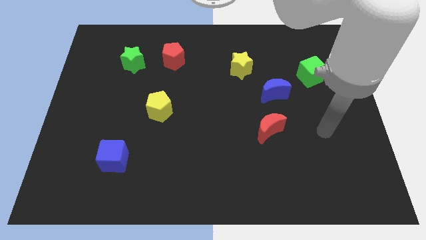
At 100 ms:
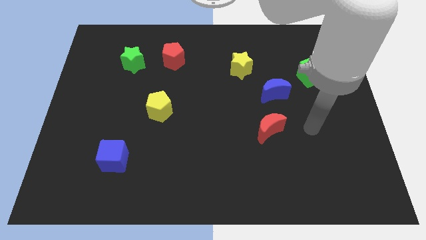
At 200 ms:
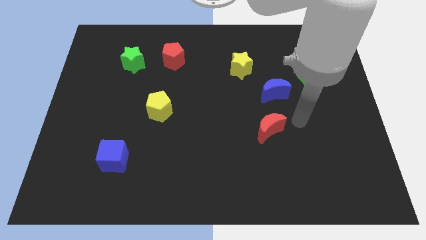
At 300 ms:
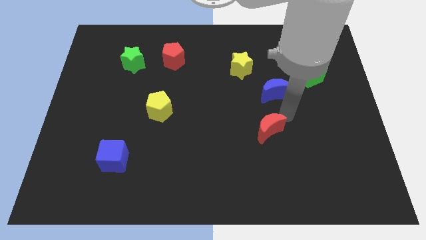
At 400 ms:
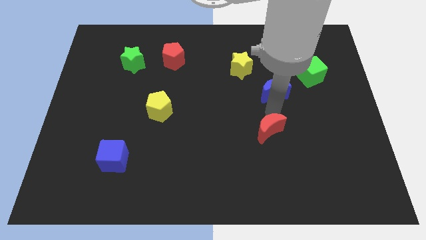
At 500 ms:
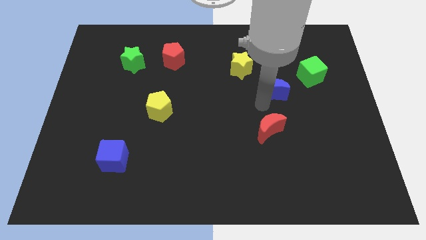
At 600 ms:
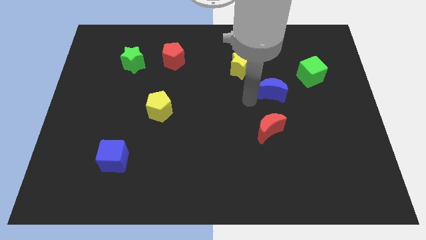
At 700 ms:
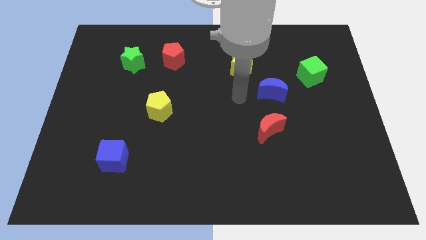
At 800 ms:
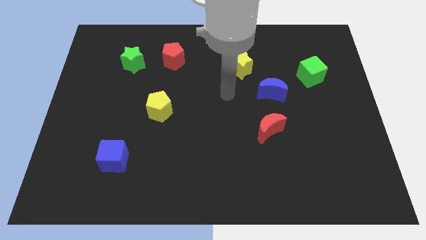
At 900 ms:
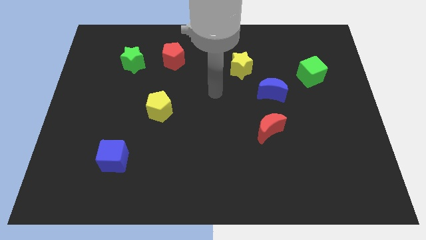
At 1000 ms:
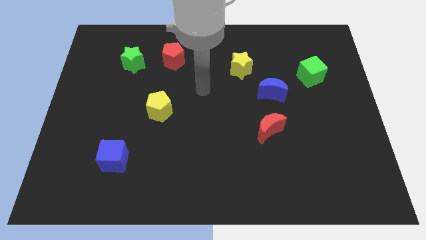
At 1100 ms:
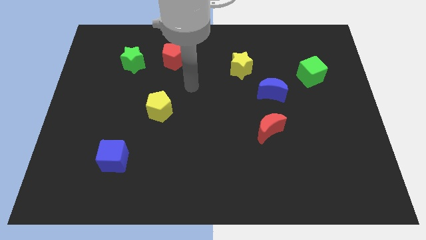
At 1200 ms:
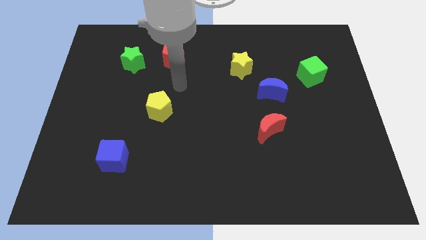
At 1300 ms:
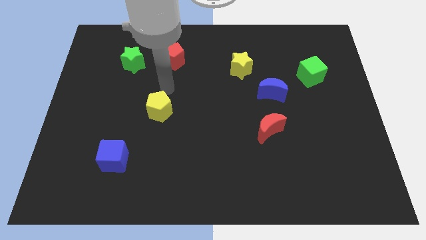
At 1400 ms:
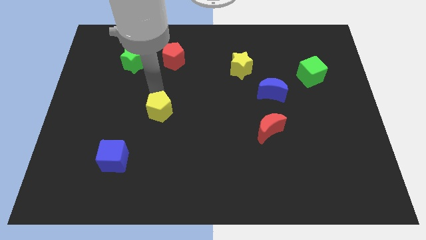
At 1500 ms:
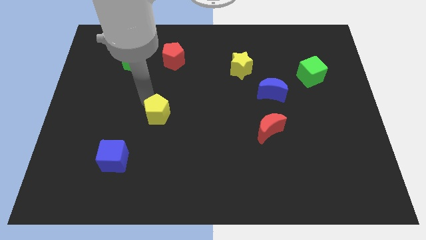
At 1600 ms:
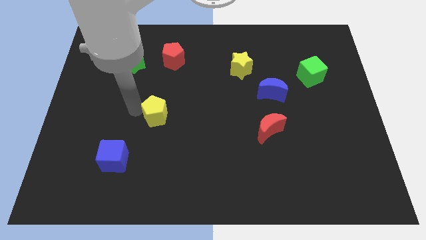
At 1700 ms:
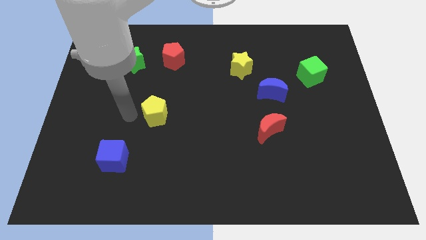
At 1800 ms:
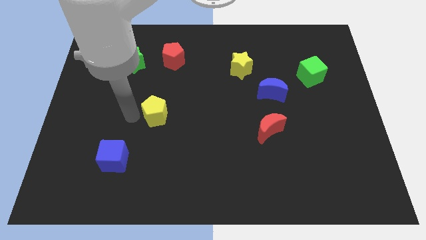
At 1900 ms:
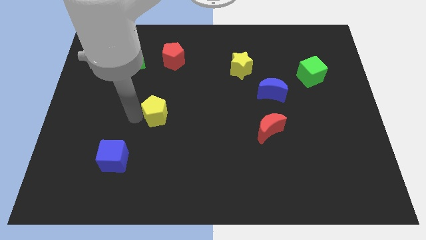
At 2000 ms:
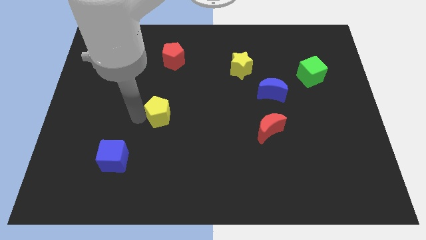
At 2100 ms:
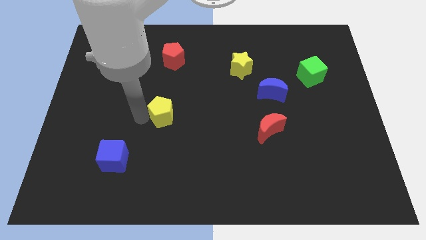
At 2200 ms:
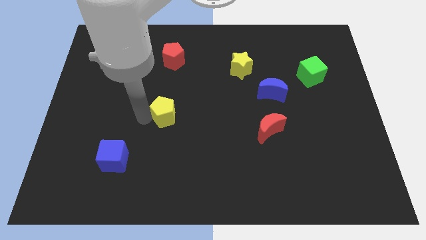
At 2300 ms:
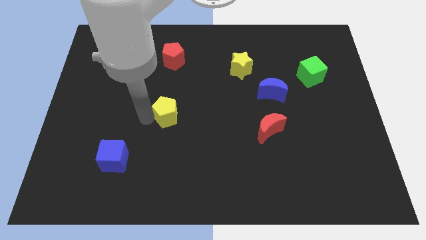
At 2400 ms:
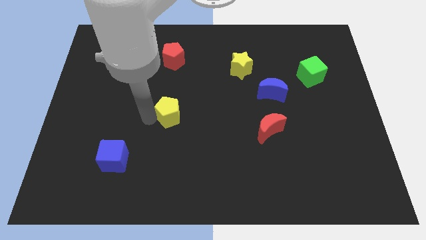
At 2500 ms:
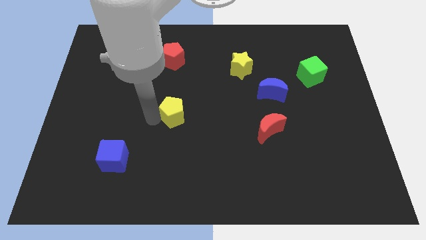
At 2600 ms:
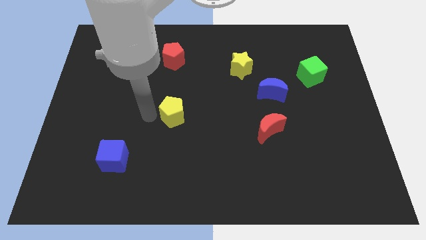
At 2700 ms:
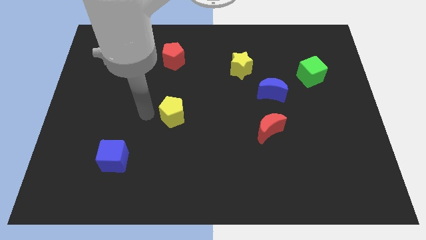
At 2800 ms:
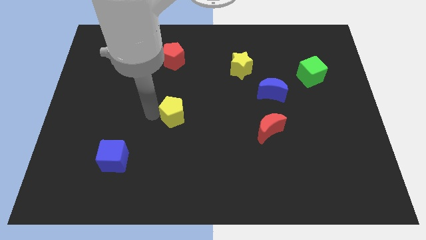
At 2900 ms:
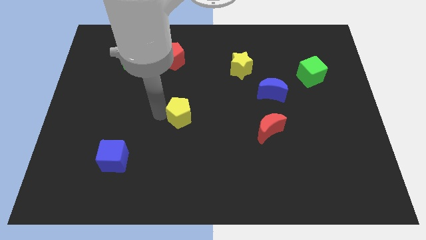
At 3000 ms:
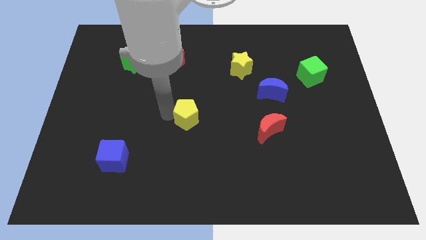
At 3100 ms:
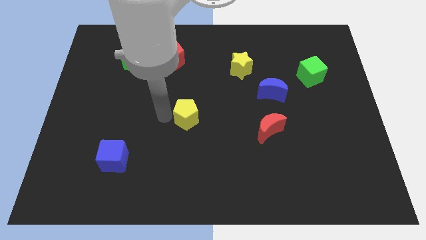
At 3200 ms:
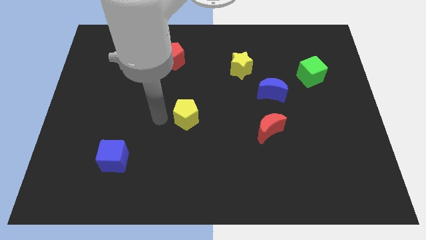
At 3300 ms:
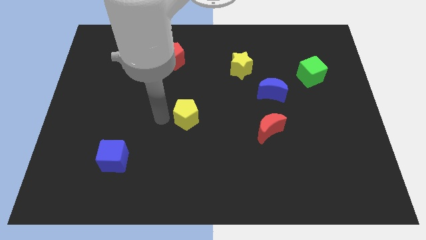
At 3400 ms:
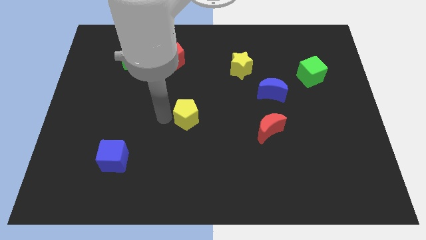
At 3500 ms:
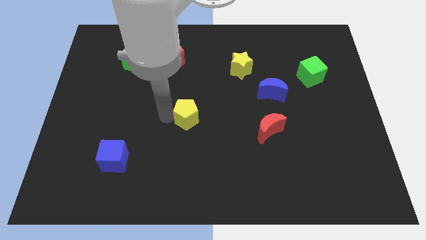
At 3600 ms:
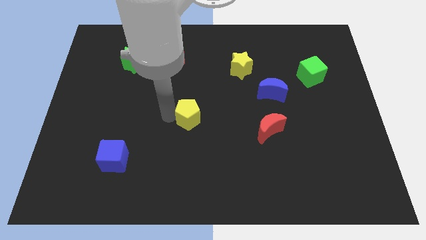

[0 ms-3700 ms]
slide the yellow pentagon to the right a little bit

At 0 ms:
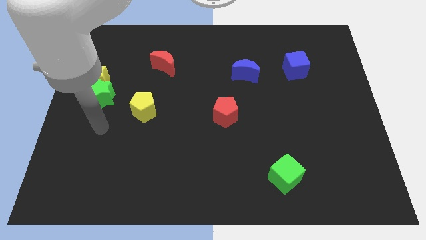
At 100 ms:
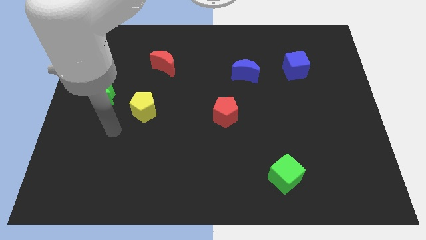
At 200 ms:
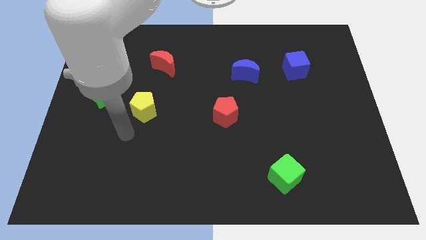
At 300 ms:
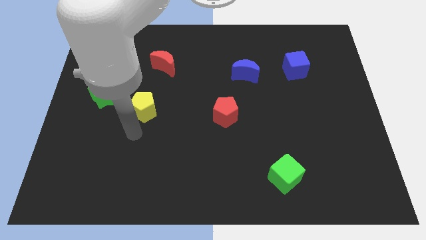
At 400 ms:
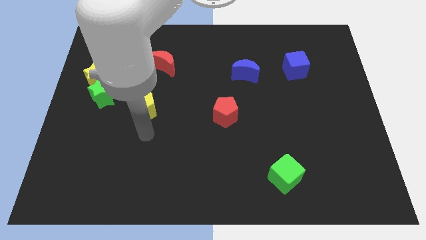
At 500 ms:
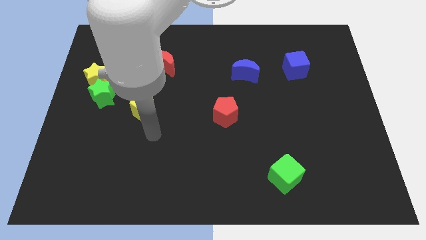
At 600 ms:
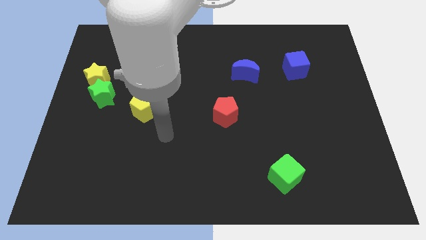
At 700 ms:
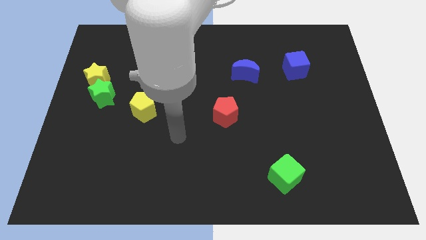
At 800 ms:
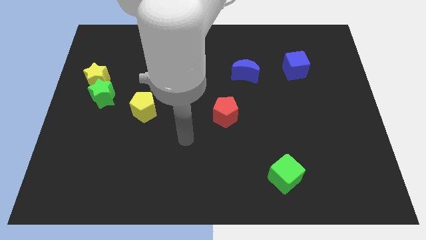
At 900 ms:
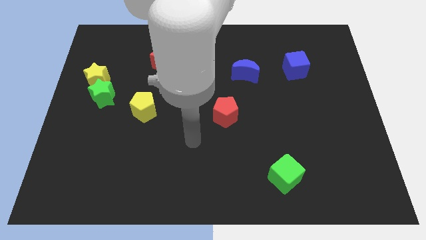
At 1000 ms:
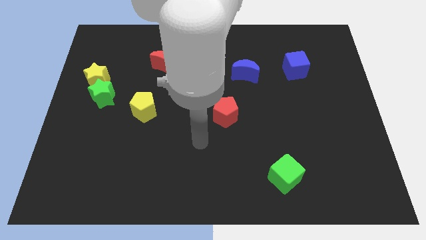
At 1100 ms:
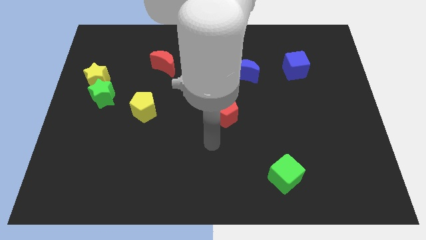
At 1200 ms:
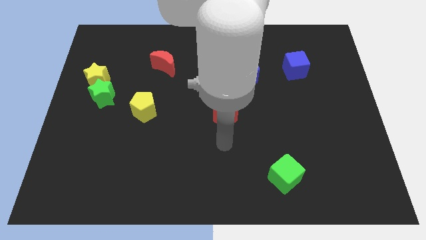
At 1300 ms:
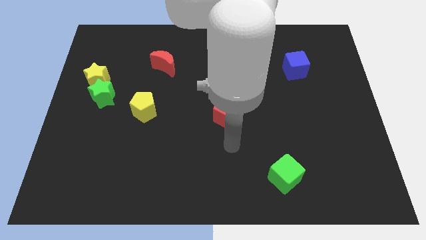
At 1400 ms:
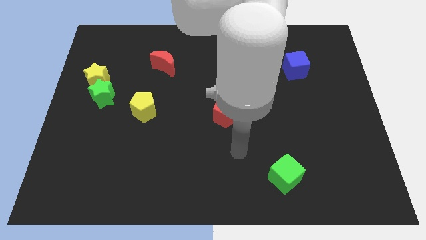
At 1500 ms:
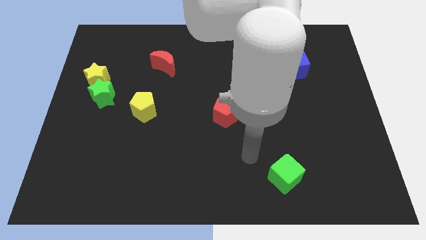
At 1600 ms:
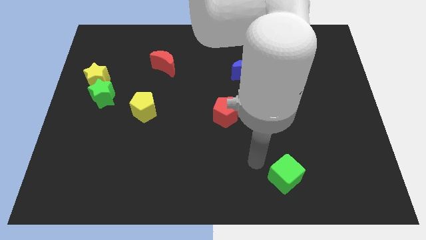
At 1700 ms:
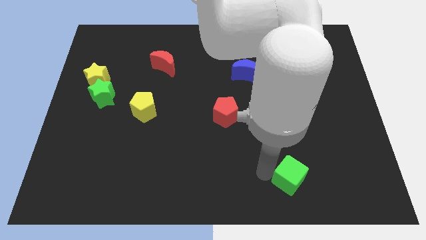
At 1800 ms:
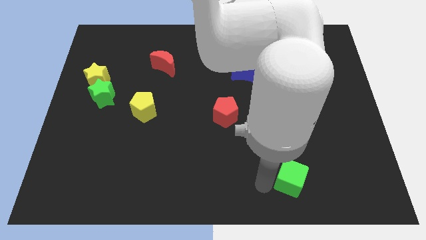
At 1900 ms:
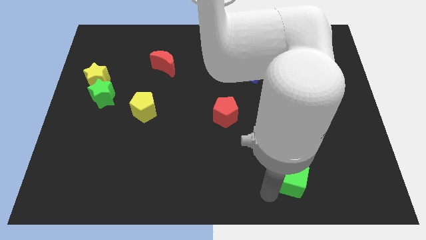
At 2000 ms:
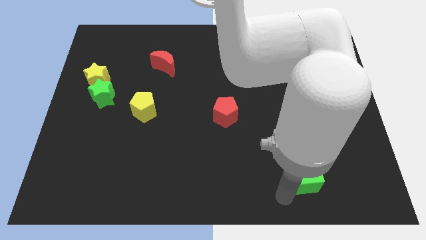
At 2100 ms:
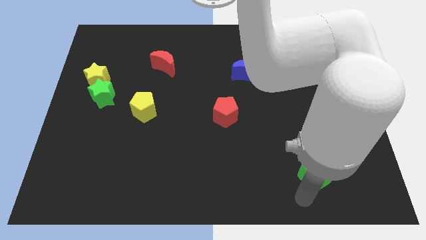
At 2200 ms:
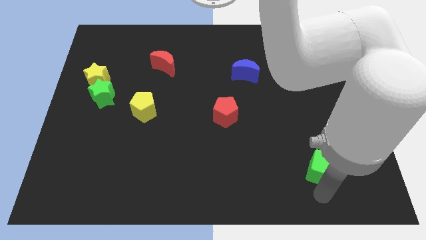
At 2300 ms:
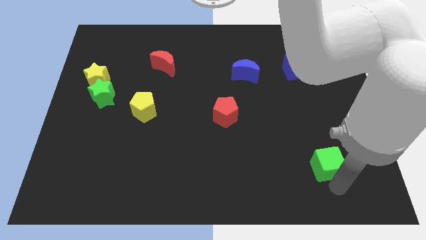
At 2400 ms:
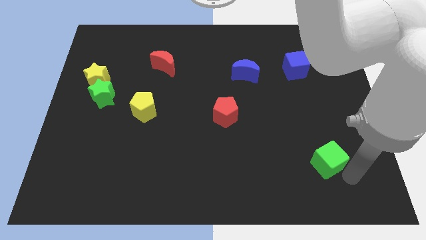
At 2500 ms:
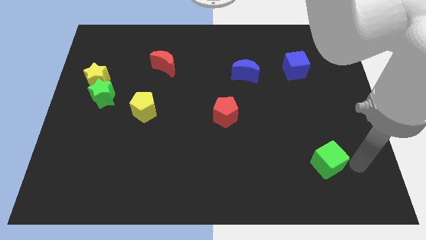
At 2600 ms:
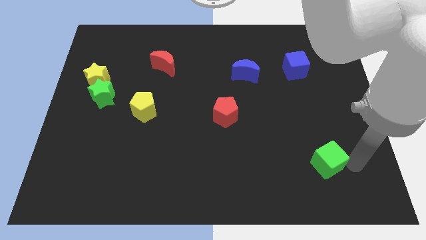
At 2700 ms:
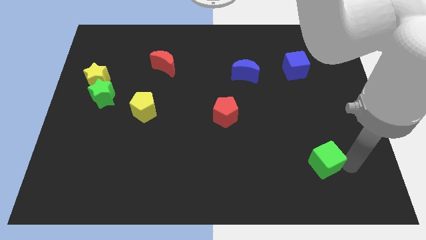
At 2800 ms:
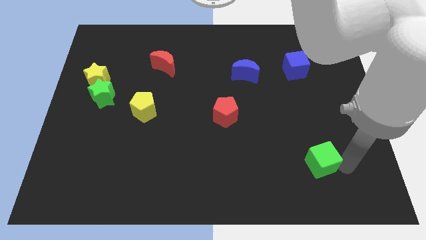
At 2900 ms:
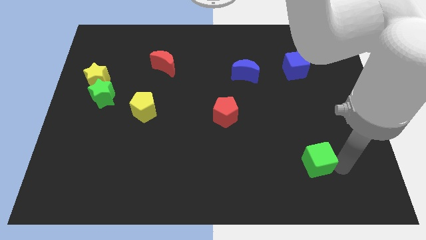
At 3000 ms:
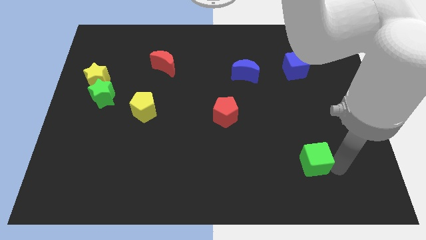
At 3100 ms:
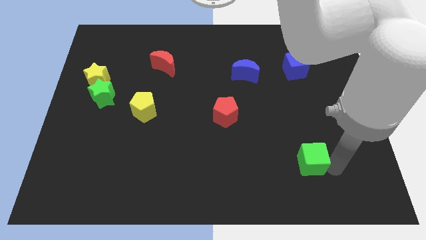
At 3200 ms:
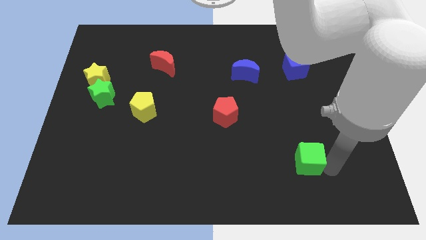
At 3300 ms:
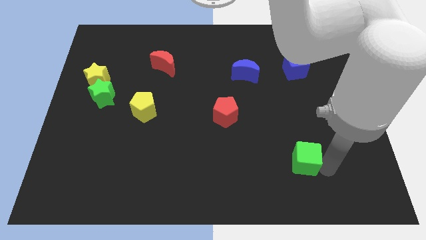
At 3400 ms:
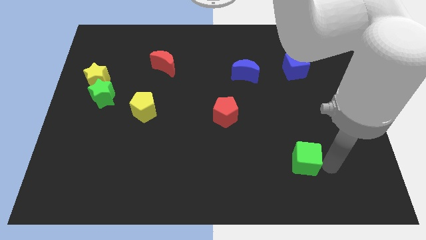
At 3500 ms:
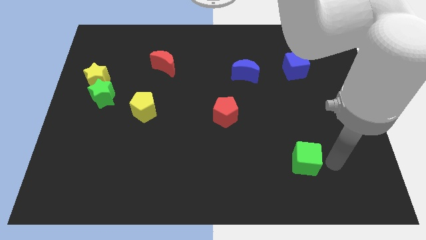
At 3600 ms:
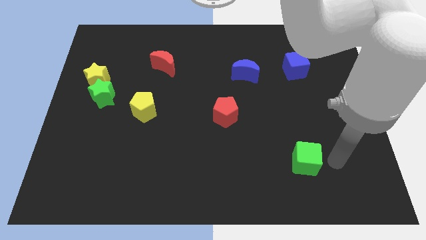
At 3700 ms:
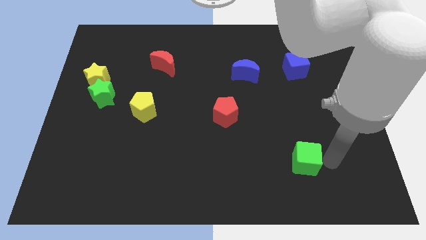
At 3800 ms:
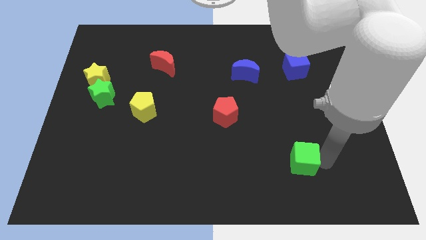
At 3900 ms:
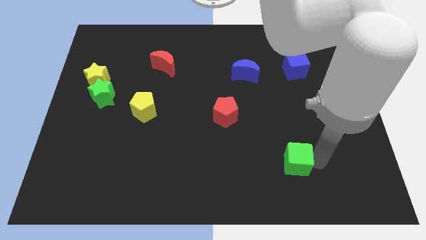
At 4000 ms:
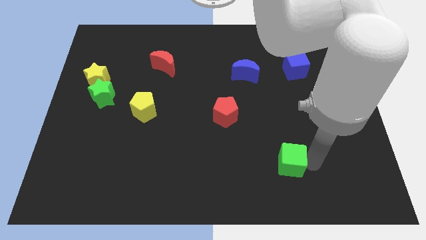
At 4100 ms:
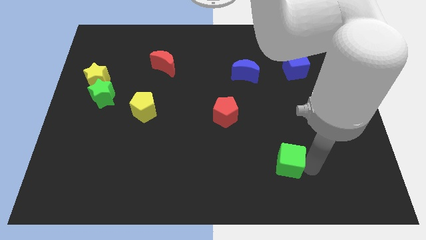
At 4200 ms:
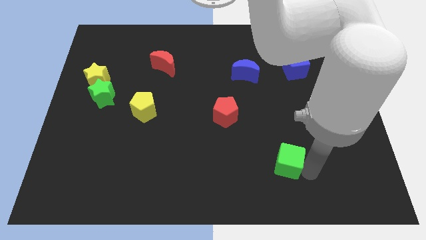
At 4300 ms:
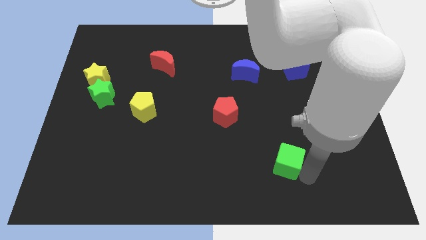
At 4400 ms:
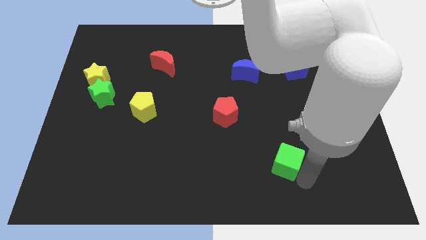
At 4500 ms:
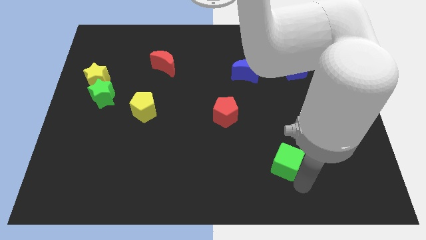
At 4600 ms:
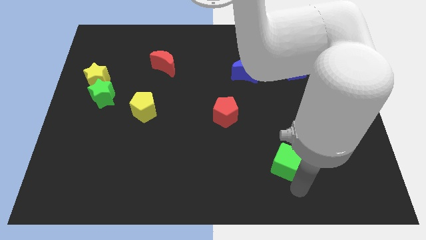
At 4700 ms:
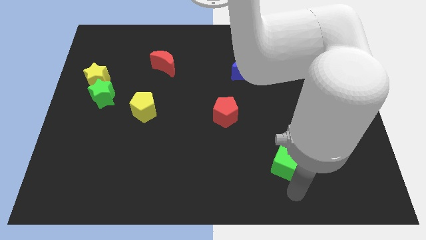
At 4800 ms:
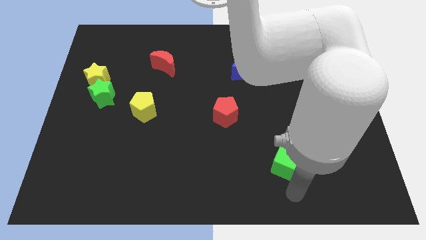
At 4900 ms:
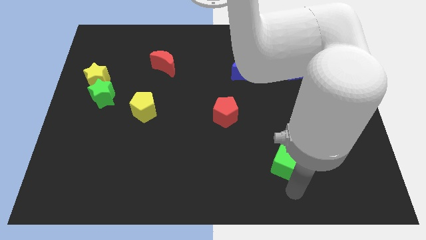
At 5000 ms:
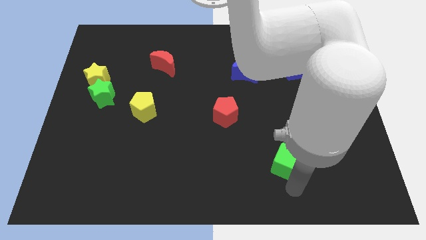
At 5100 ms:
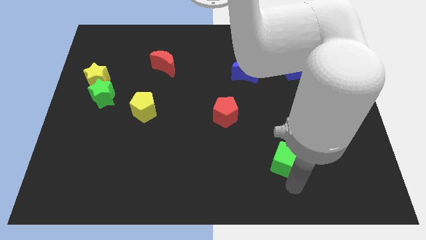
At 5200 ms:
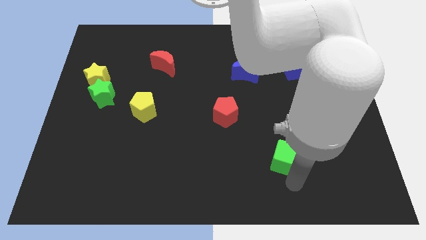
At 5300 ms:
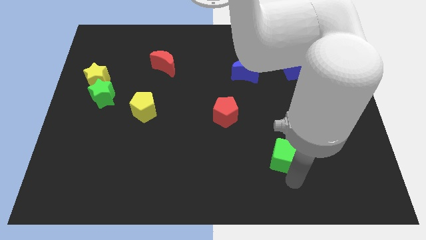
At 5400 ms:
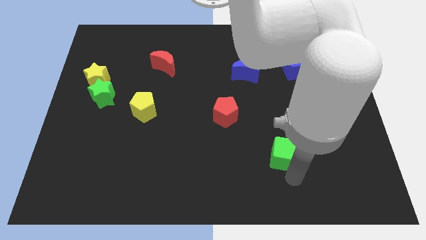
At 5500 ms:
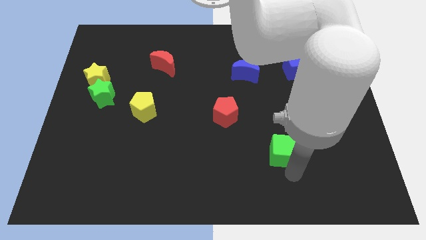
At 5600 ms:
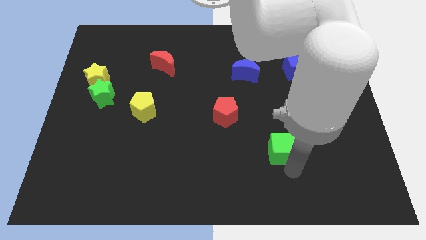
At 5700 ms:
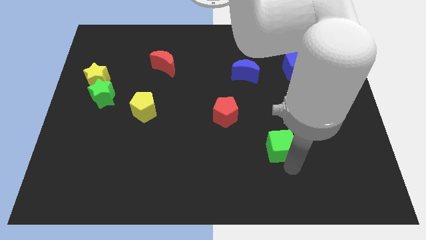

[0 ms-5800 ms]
slightly push the green cube upwards
